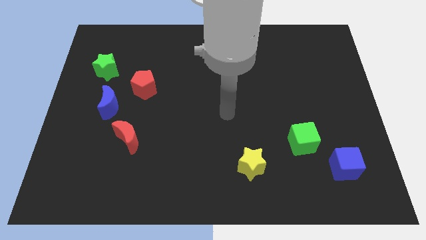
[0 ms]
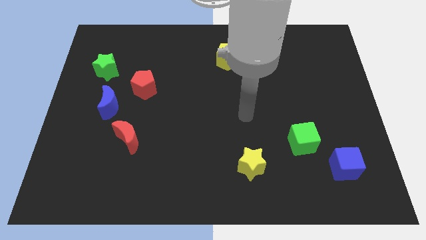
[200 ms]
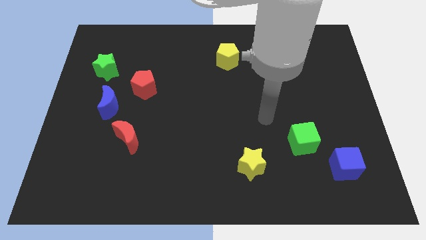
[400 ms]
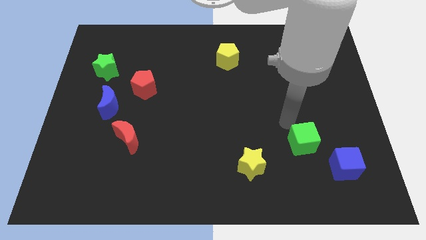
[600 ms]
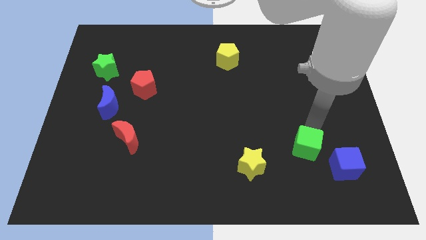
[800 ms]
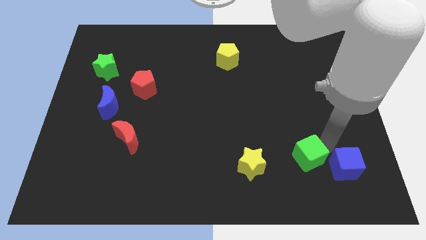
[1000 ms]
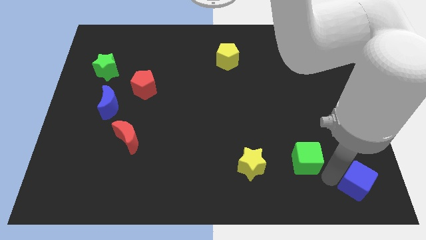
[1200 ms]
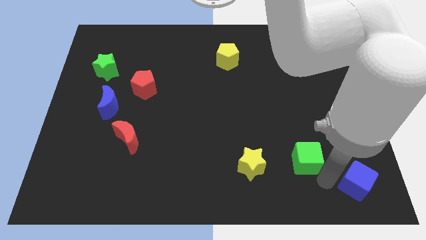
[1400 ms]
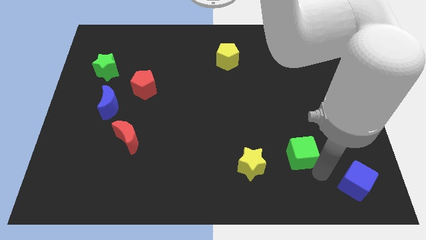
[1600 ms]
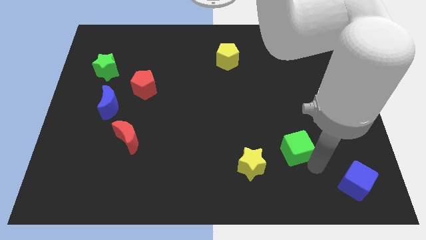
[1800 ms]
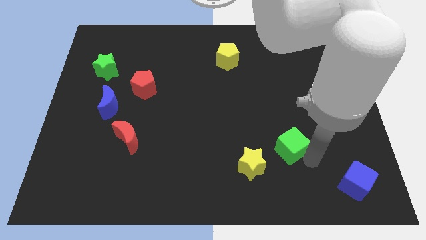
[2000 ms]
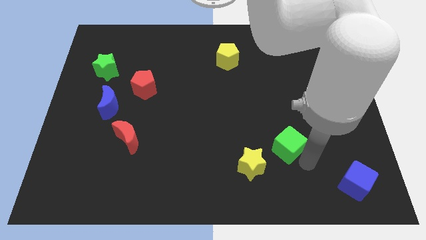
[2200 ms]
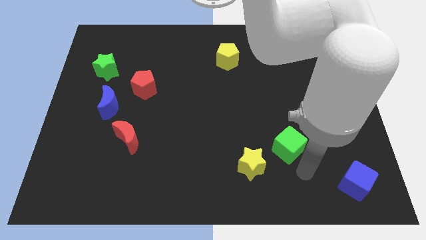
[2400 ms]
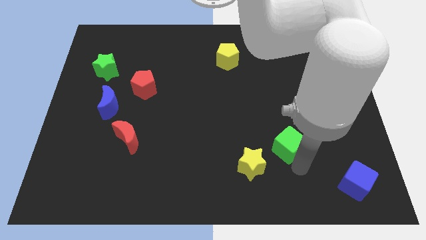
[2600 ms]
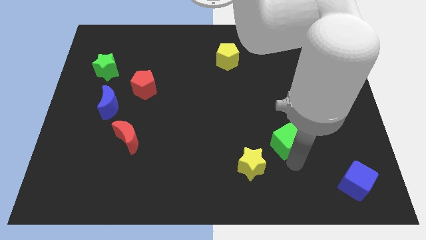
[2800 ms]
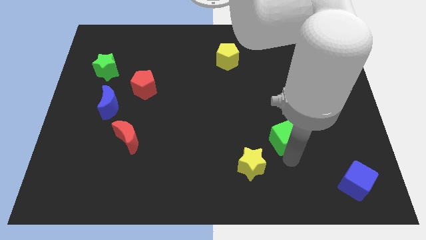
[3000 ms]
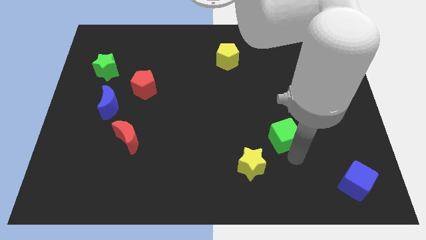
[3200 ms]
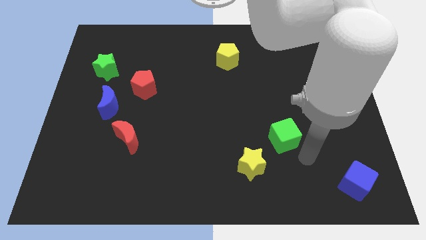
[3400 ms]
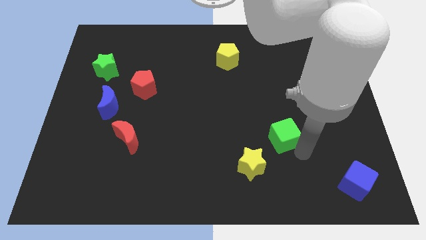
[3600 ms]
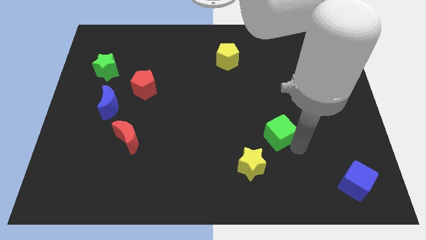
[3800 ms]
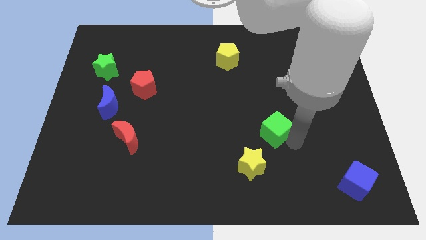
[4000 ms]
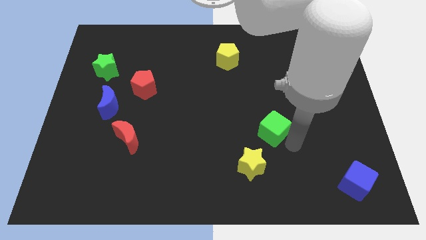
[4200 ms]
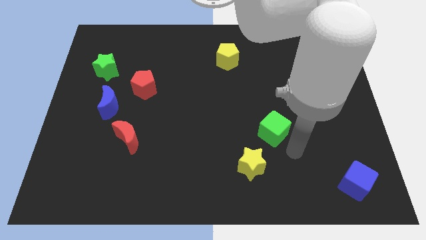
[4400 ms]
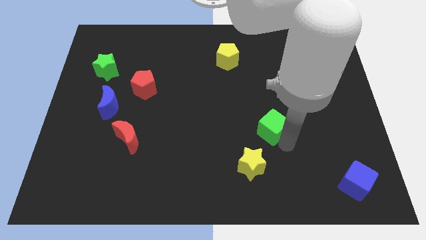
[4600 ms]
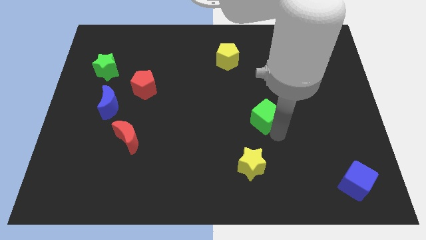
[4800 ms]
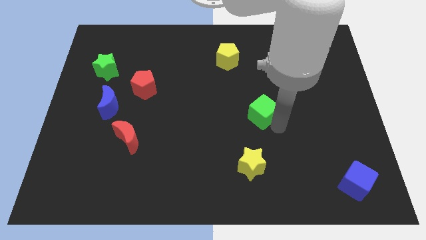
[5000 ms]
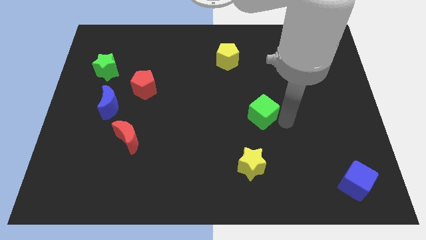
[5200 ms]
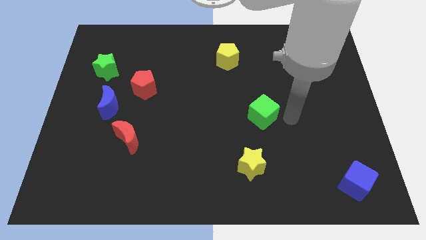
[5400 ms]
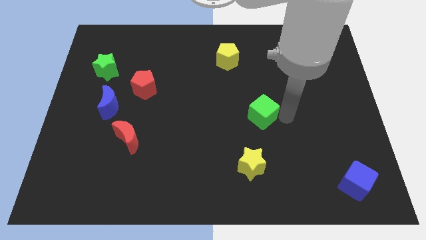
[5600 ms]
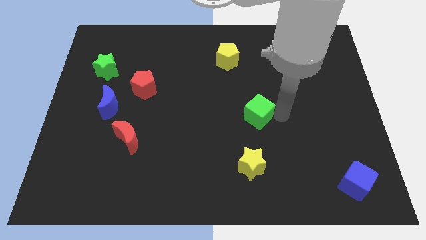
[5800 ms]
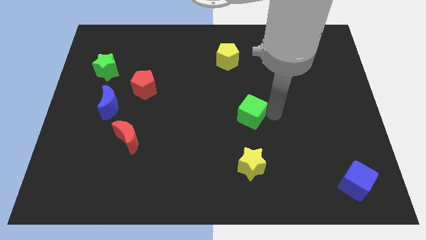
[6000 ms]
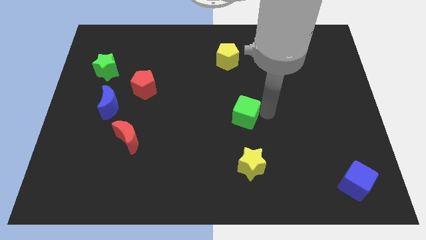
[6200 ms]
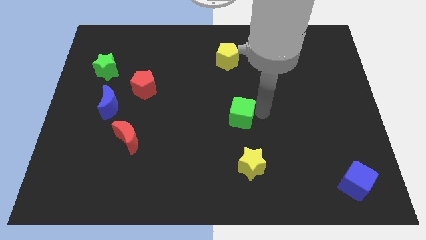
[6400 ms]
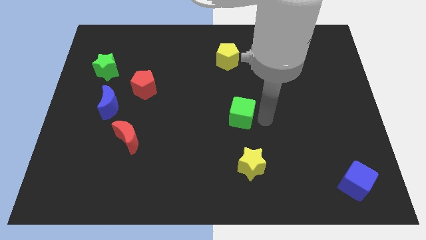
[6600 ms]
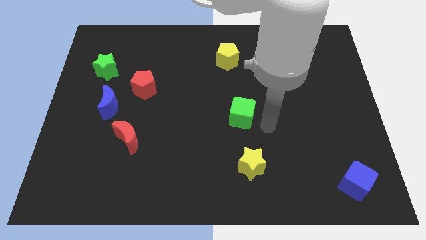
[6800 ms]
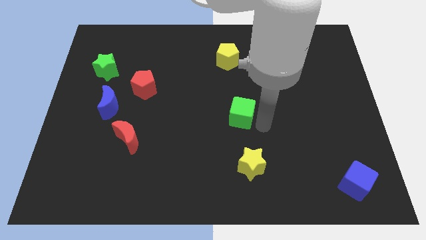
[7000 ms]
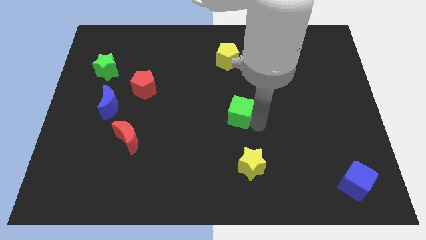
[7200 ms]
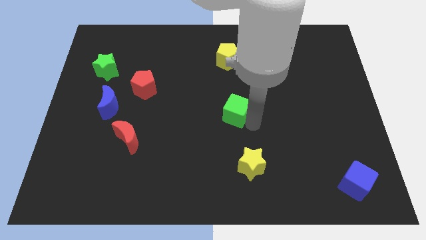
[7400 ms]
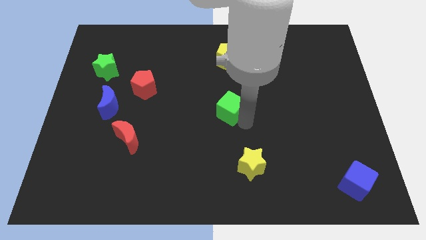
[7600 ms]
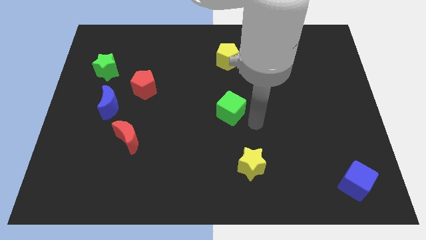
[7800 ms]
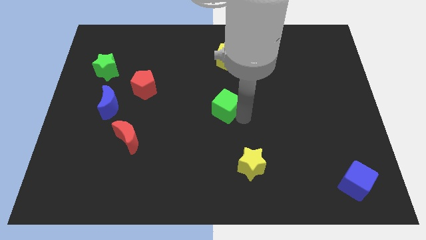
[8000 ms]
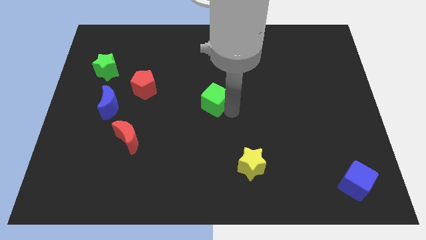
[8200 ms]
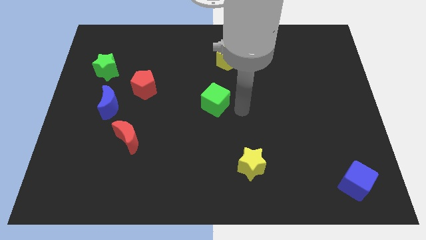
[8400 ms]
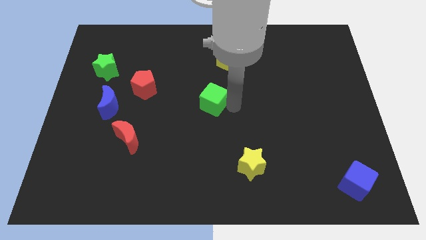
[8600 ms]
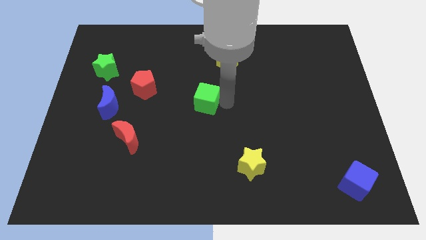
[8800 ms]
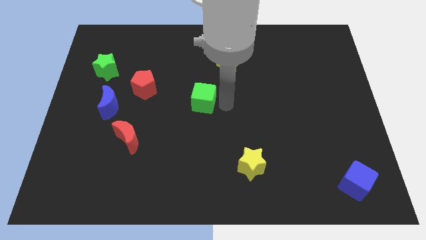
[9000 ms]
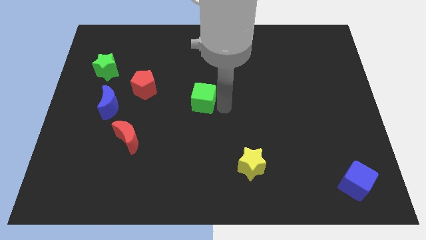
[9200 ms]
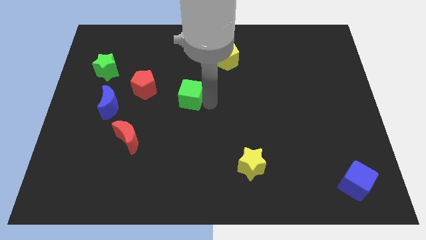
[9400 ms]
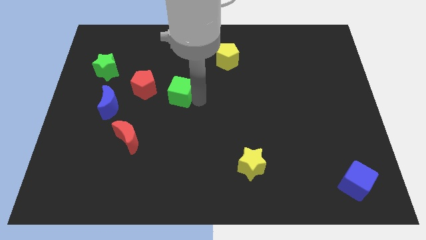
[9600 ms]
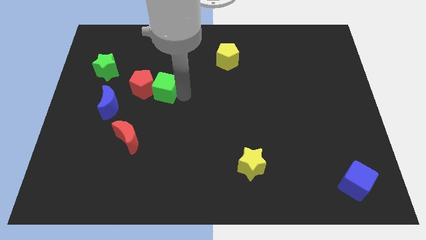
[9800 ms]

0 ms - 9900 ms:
move the green cube towards the red pentagon

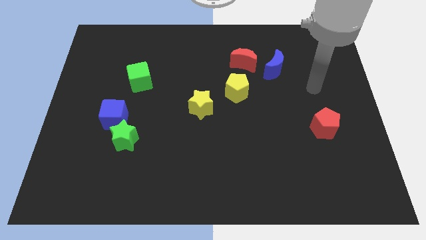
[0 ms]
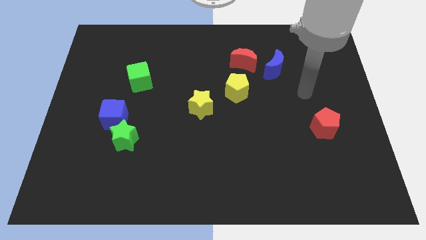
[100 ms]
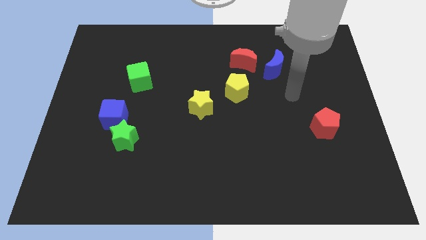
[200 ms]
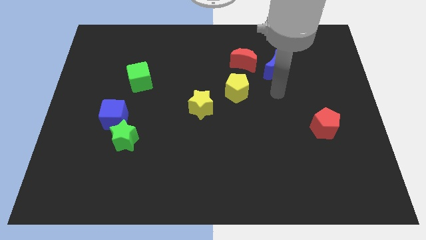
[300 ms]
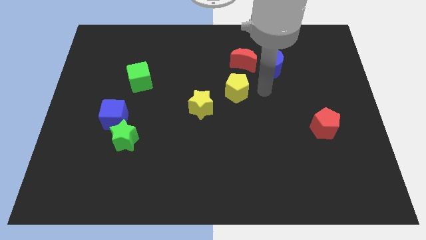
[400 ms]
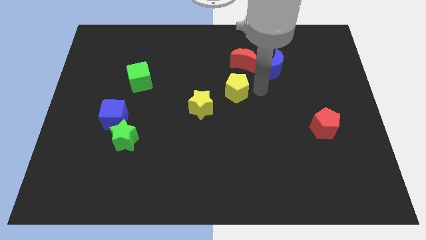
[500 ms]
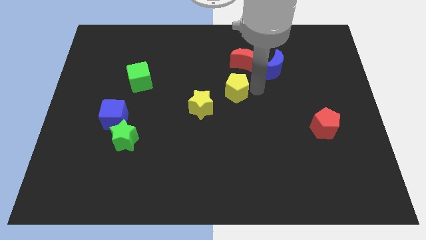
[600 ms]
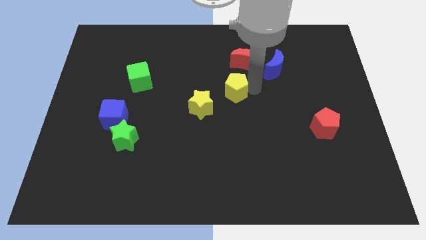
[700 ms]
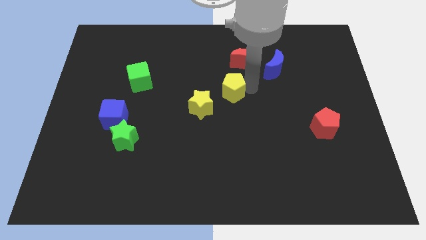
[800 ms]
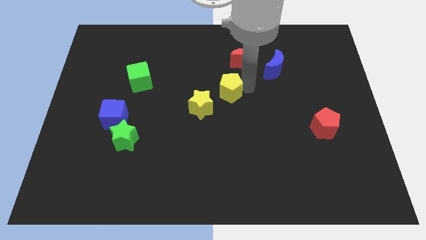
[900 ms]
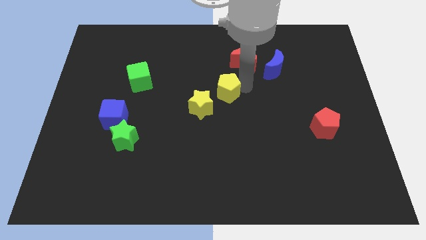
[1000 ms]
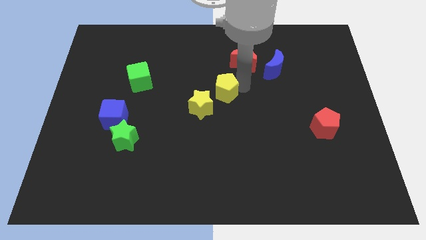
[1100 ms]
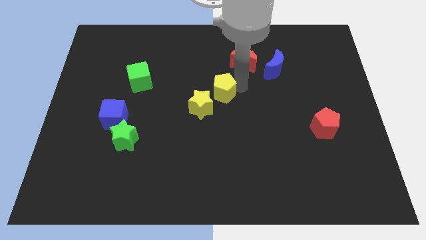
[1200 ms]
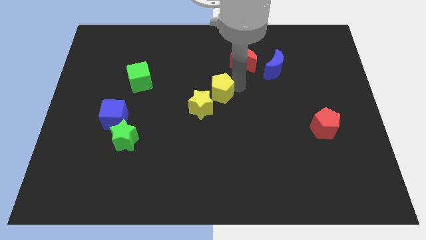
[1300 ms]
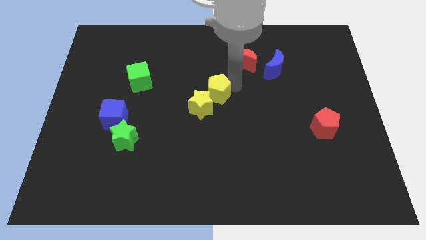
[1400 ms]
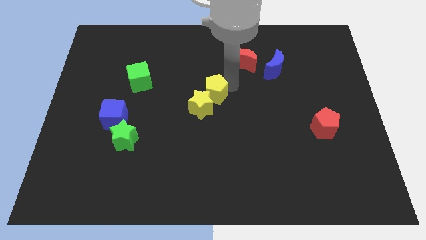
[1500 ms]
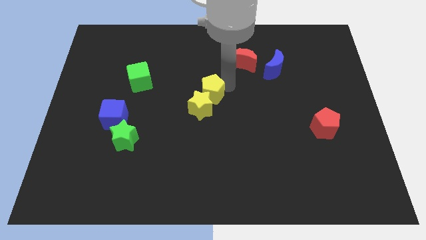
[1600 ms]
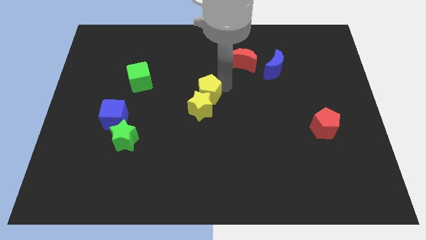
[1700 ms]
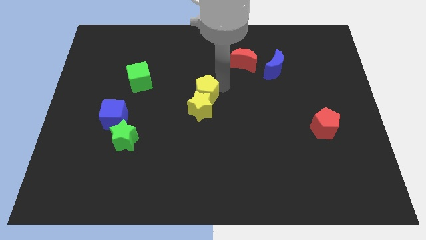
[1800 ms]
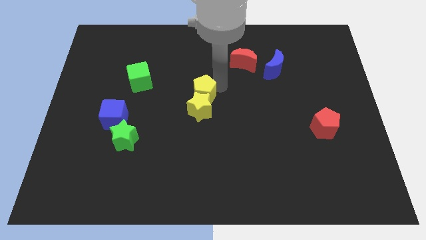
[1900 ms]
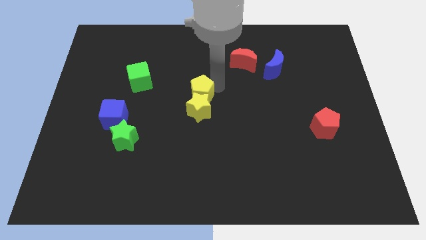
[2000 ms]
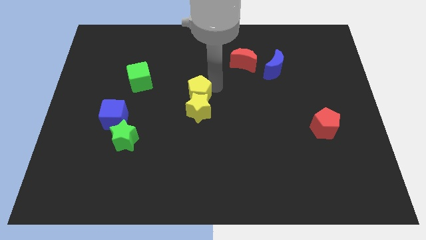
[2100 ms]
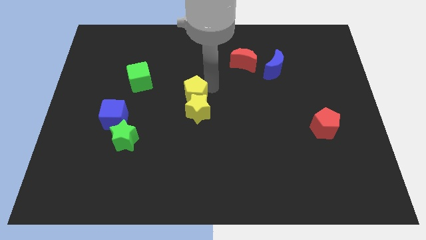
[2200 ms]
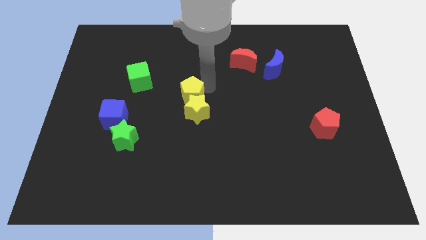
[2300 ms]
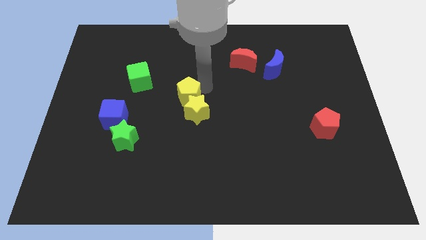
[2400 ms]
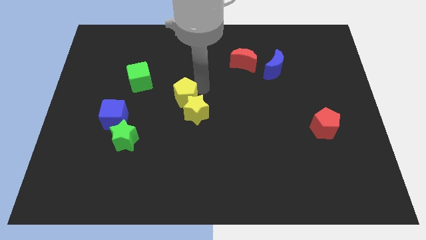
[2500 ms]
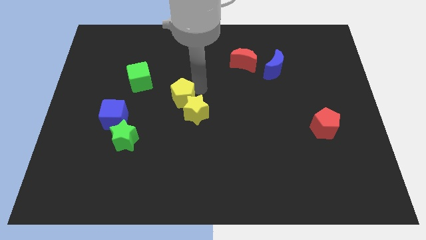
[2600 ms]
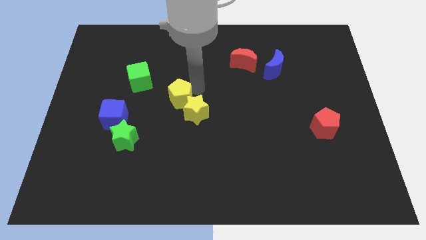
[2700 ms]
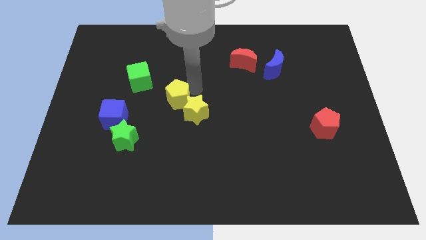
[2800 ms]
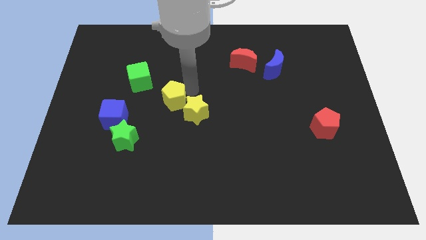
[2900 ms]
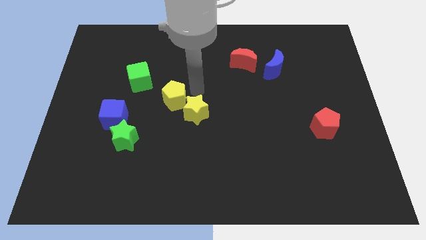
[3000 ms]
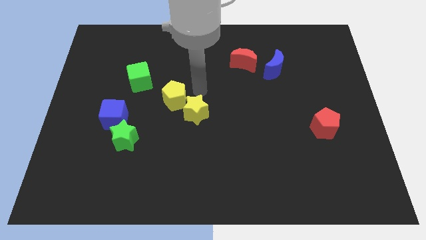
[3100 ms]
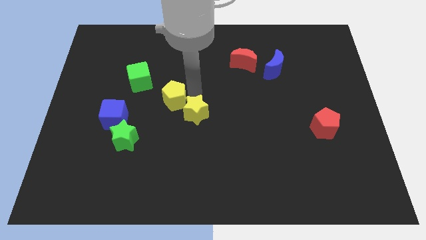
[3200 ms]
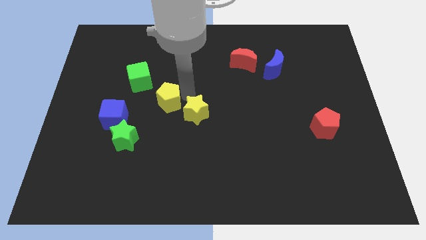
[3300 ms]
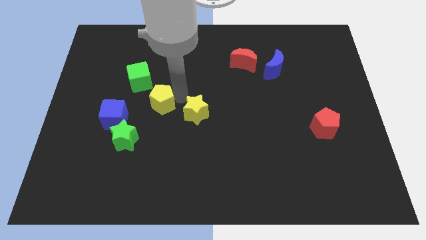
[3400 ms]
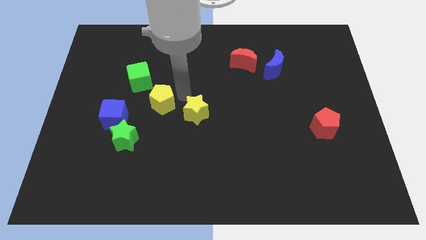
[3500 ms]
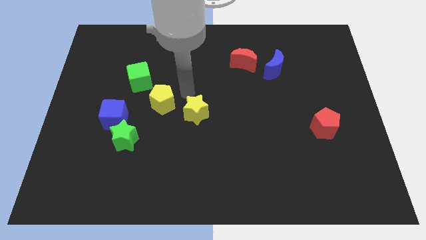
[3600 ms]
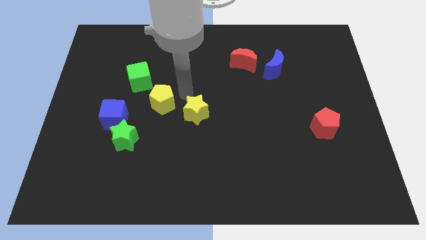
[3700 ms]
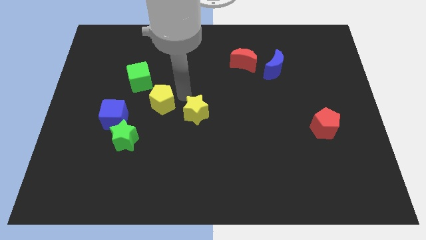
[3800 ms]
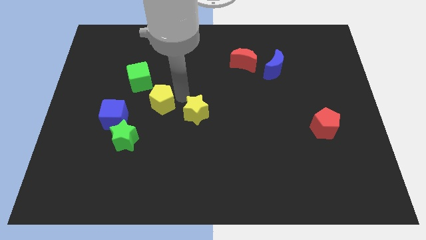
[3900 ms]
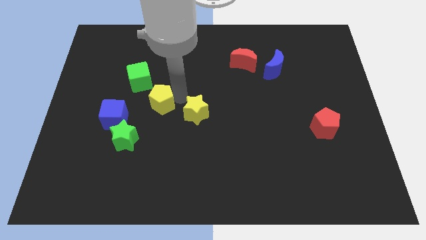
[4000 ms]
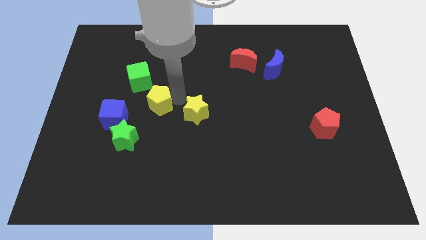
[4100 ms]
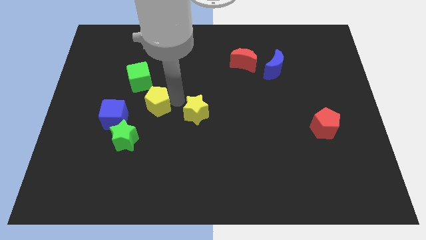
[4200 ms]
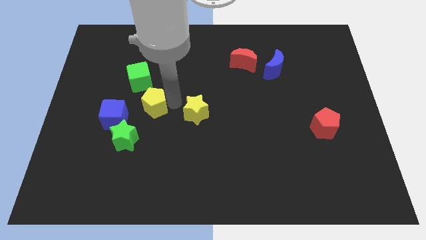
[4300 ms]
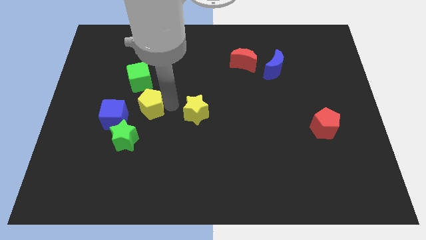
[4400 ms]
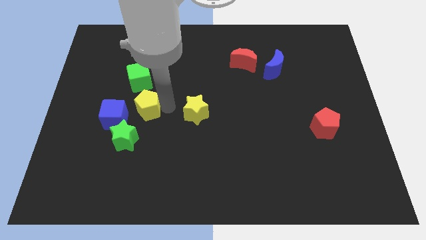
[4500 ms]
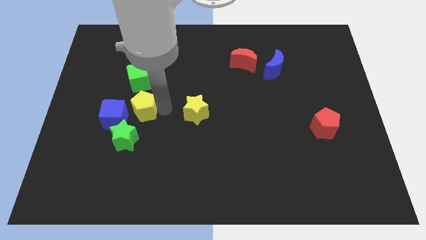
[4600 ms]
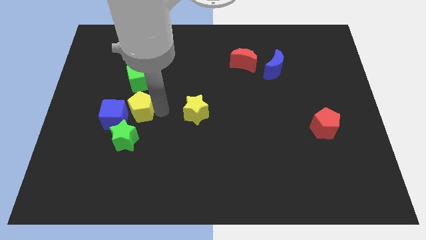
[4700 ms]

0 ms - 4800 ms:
put the yellow pentagon to the blue cube
